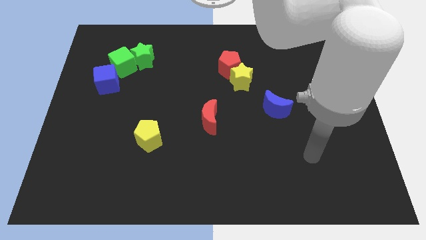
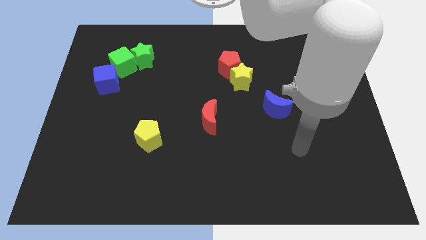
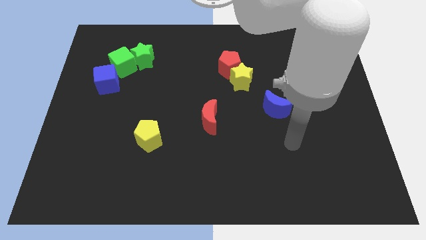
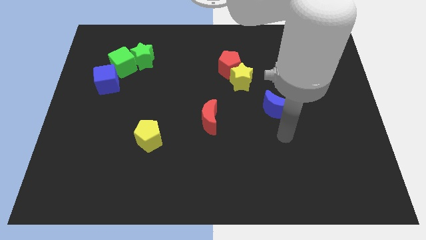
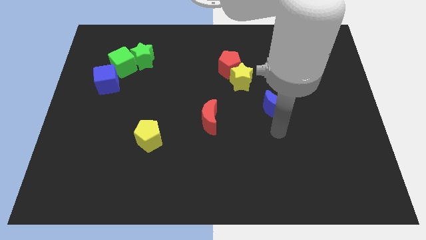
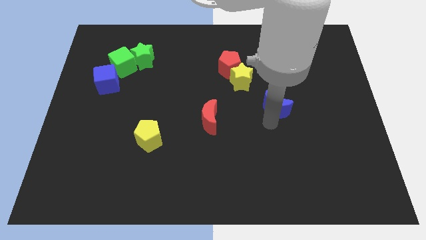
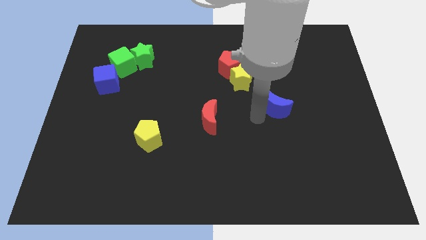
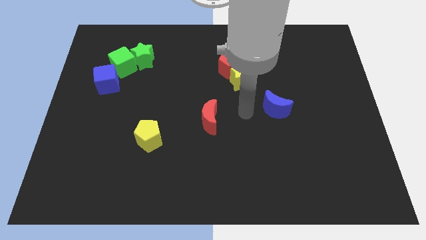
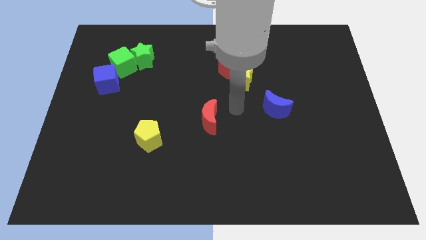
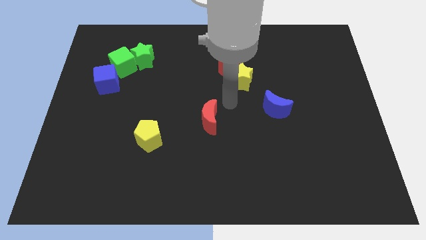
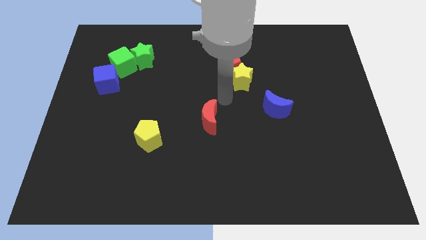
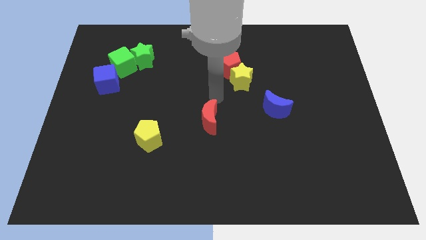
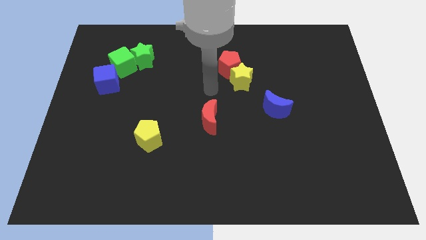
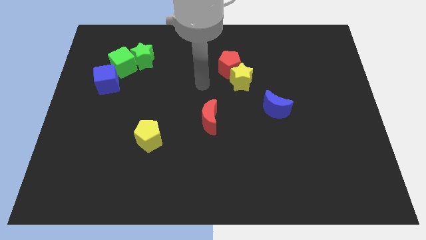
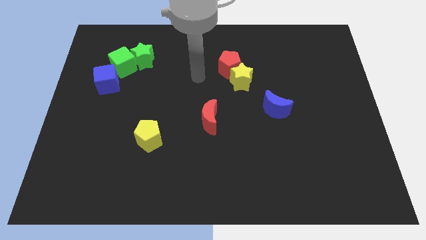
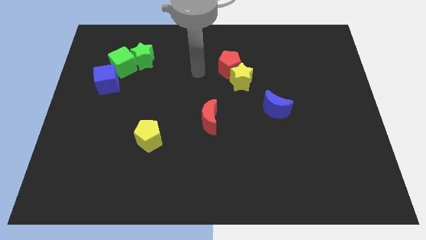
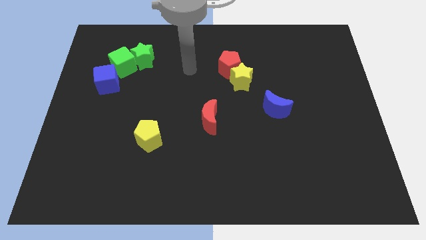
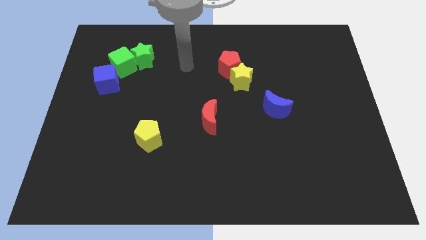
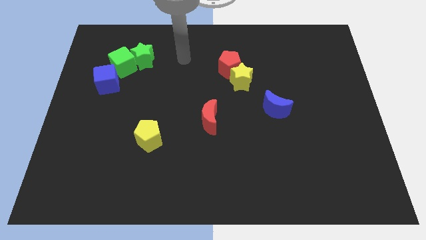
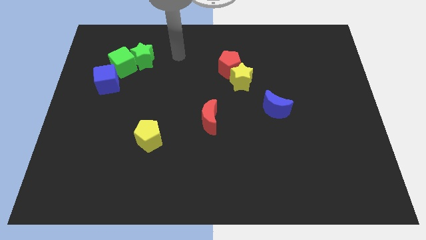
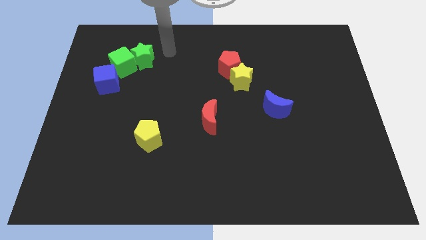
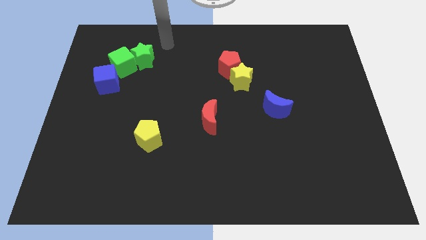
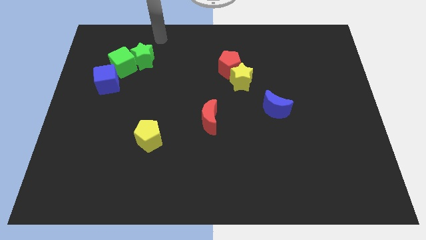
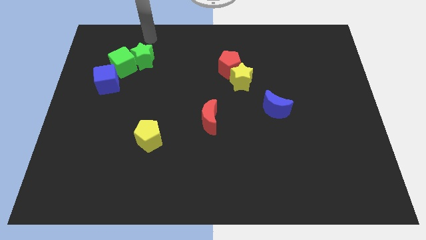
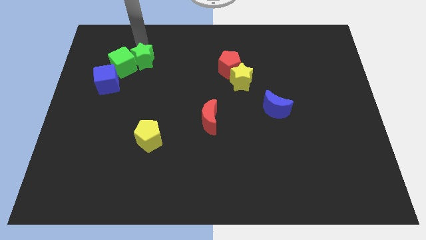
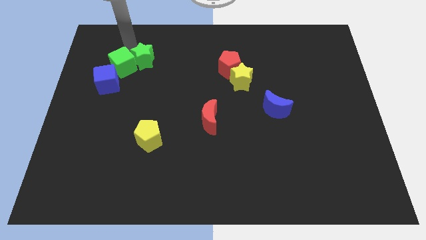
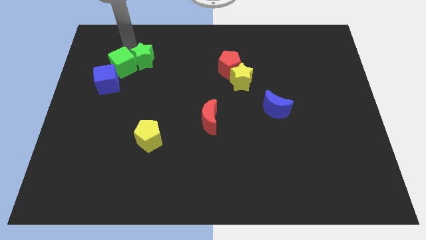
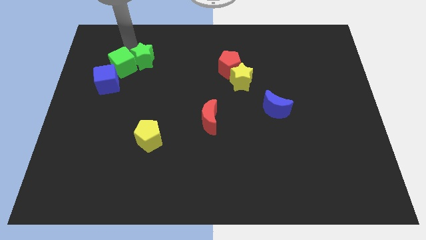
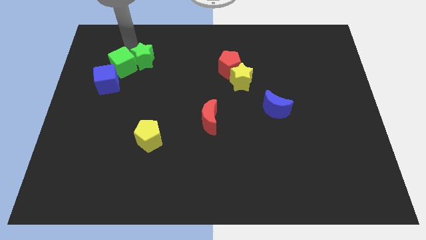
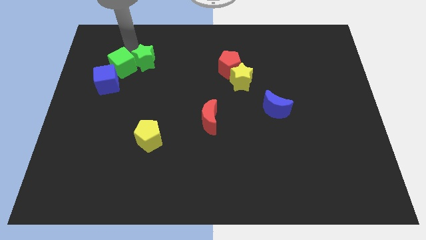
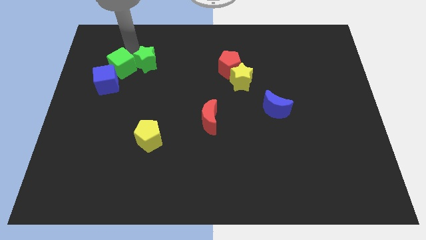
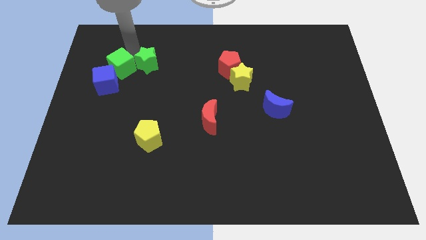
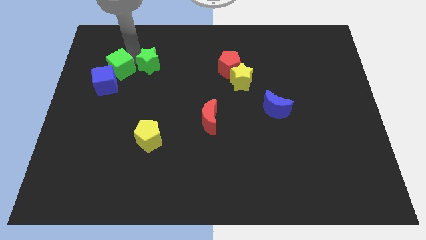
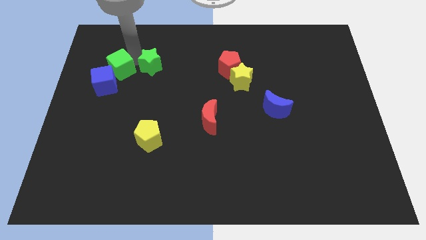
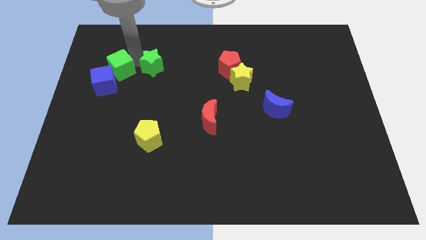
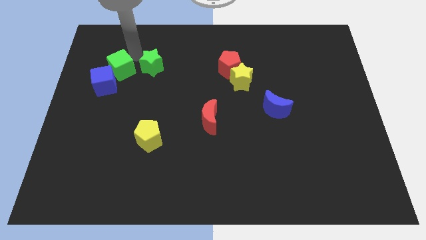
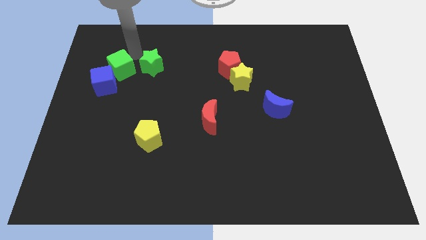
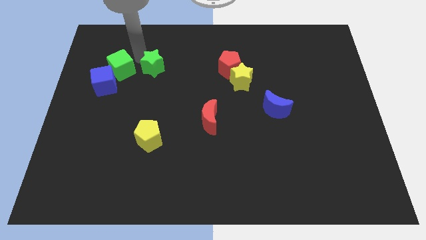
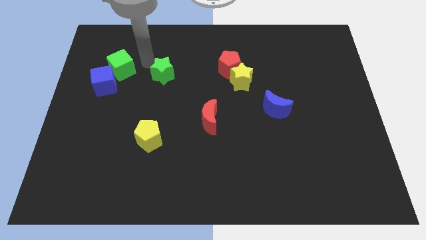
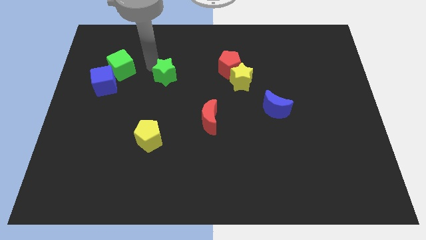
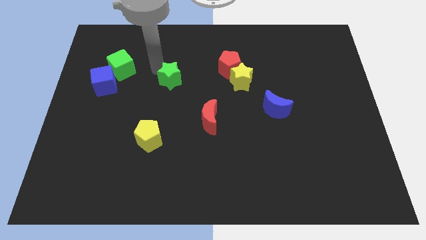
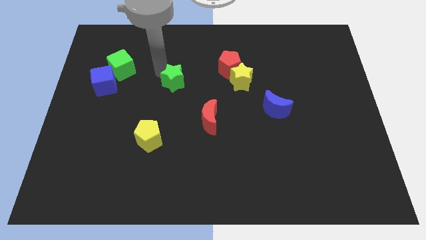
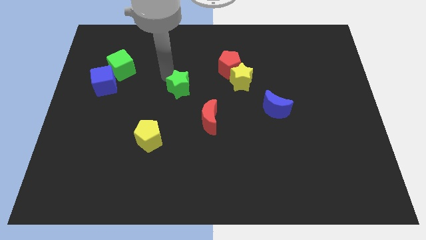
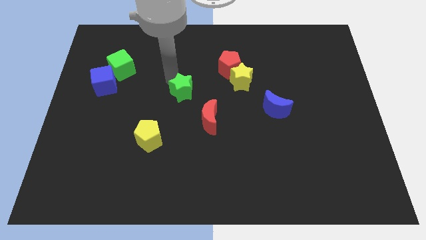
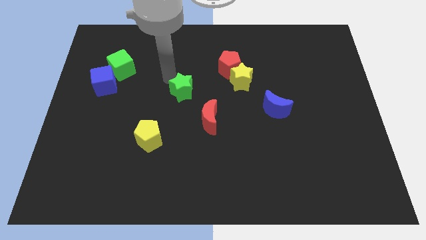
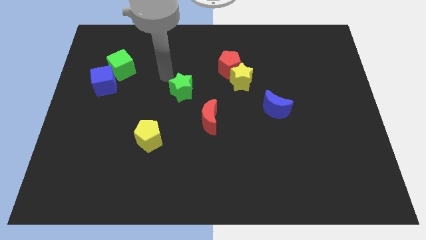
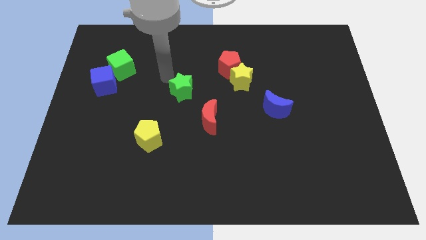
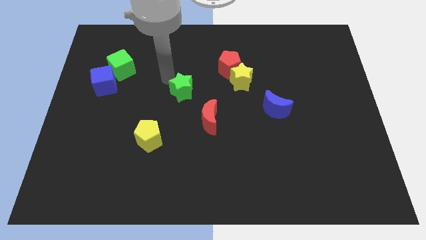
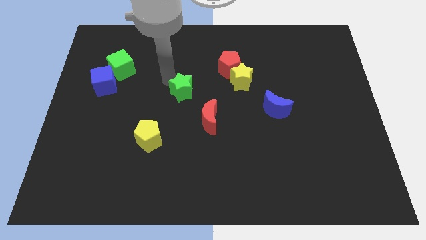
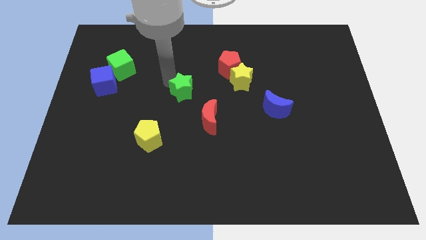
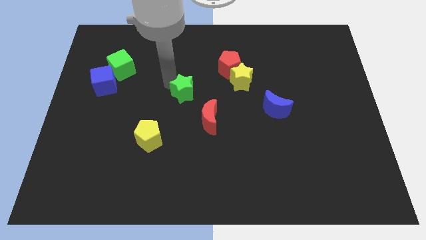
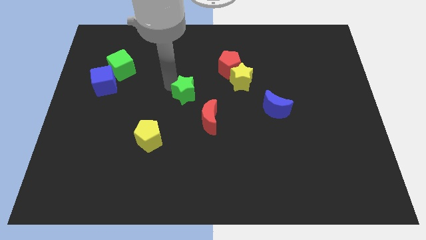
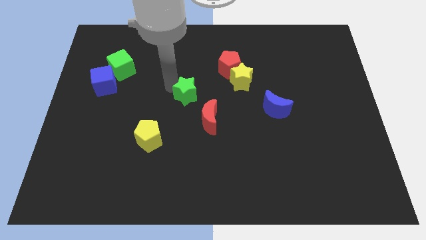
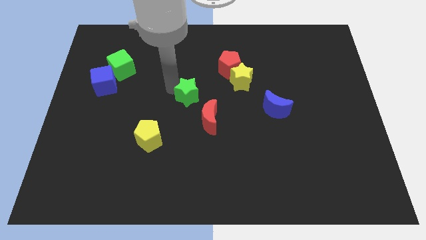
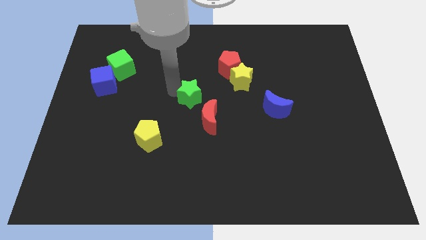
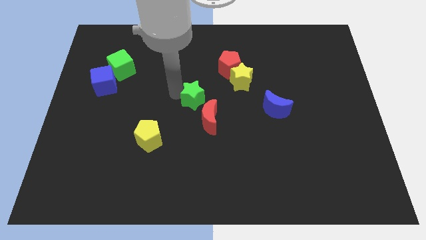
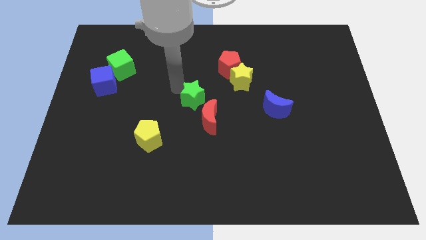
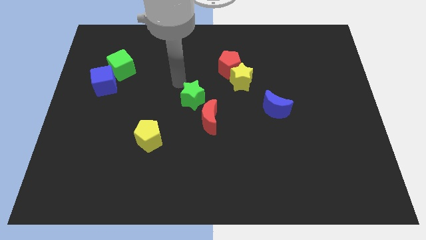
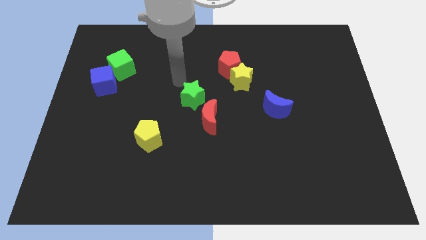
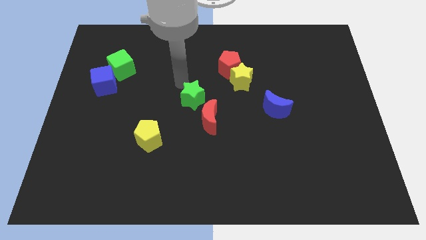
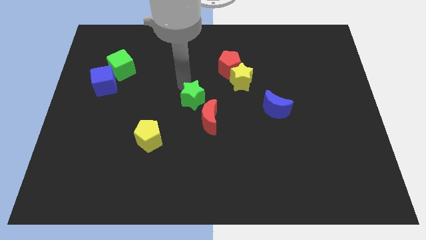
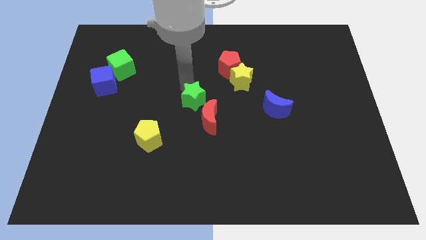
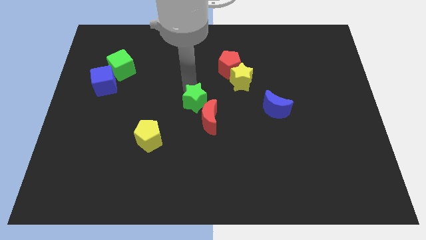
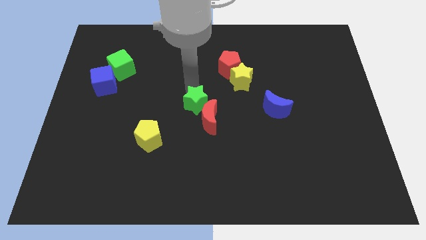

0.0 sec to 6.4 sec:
push the green star to the red moon
